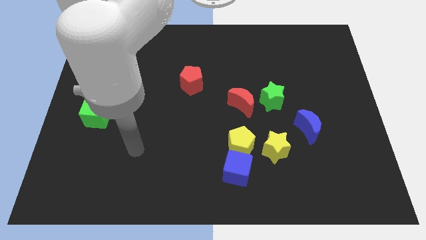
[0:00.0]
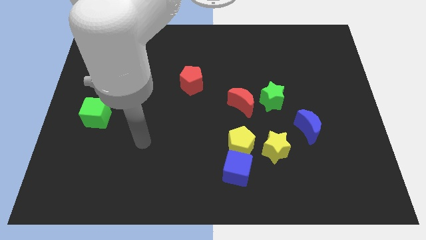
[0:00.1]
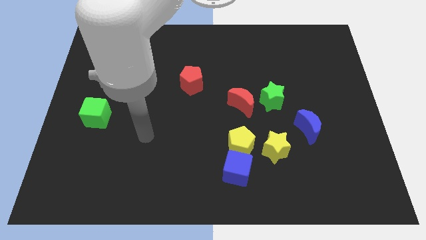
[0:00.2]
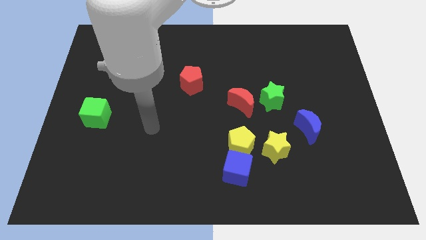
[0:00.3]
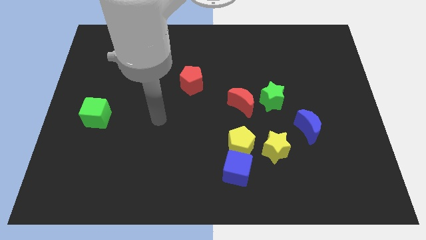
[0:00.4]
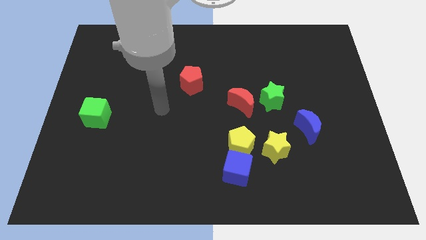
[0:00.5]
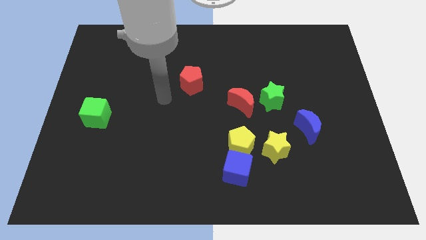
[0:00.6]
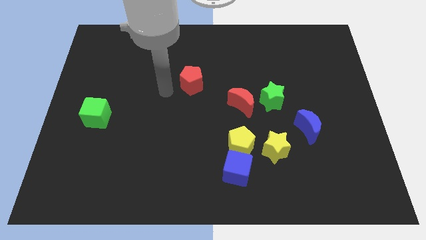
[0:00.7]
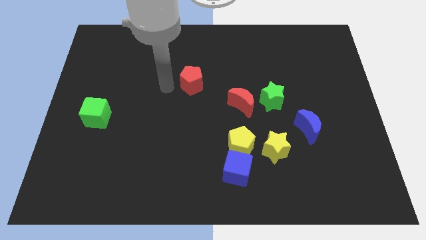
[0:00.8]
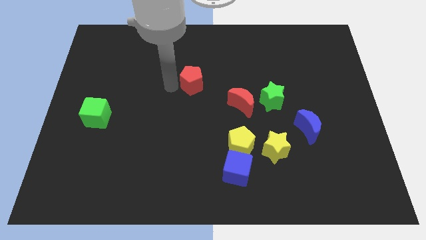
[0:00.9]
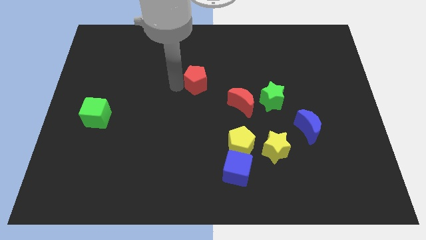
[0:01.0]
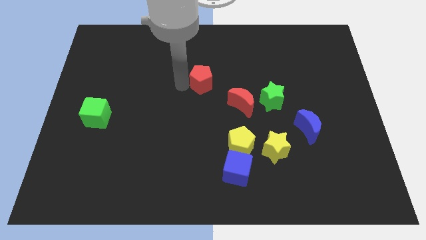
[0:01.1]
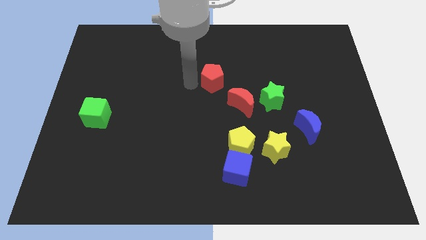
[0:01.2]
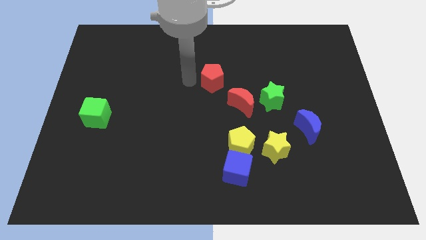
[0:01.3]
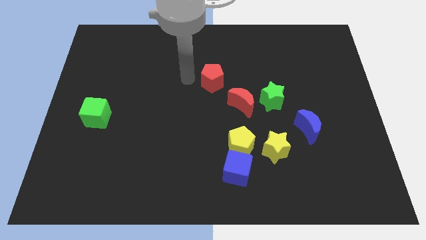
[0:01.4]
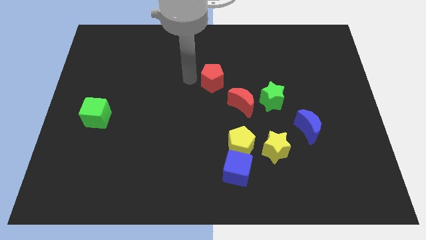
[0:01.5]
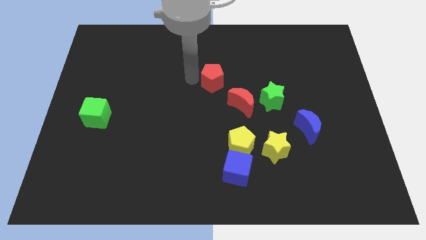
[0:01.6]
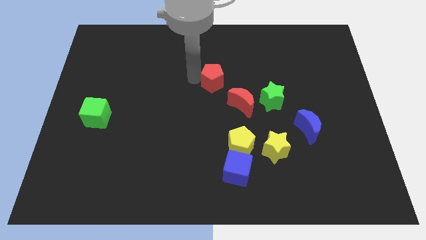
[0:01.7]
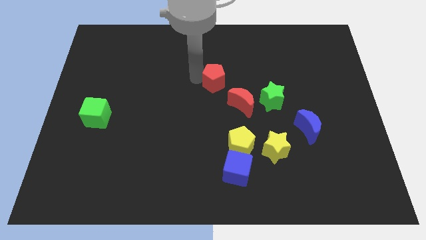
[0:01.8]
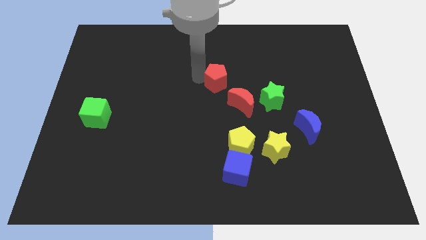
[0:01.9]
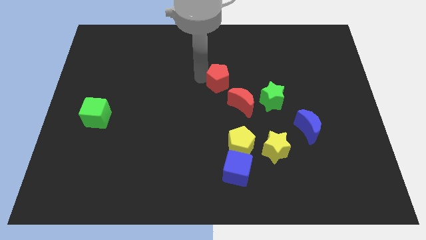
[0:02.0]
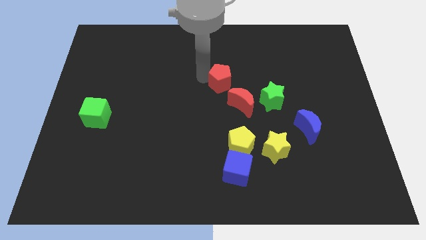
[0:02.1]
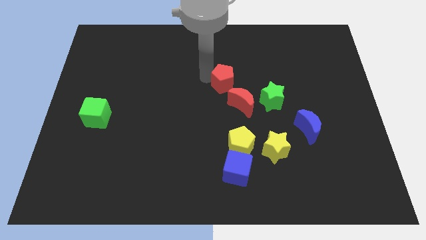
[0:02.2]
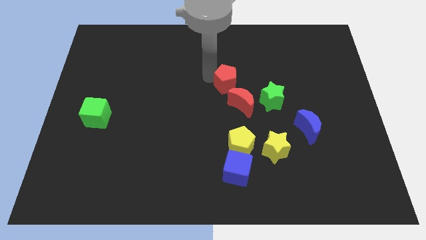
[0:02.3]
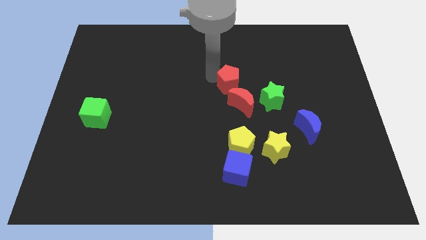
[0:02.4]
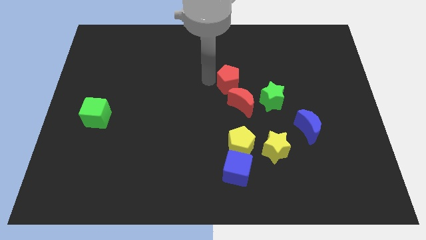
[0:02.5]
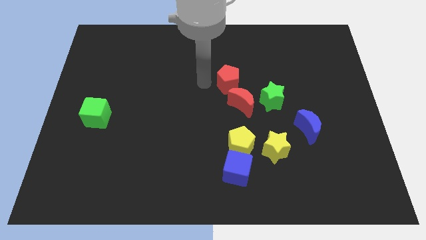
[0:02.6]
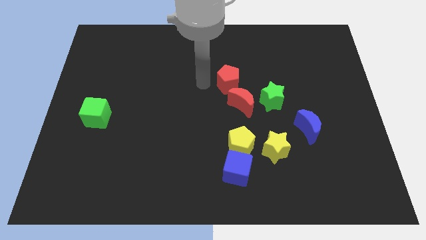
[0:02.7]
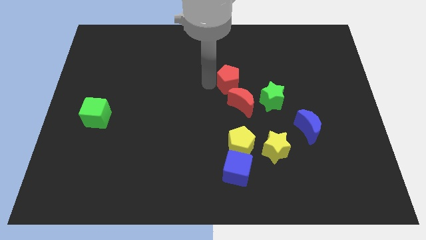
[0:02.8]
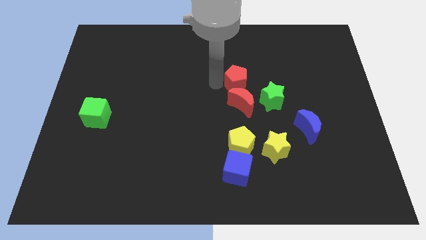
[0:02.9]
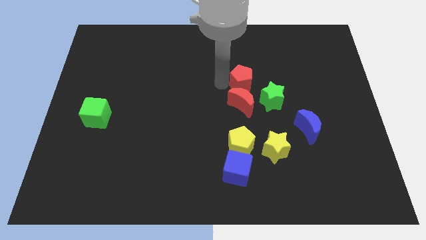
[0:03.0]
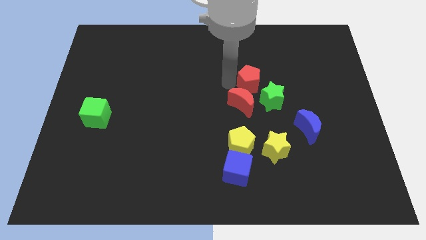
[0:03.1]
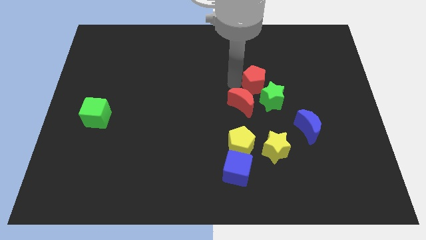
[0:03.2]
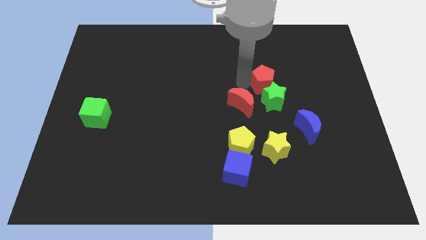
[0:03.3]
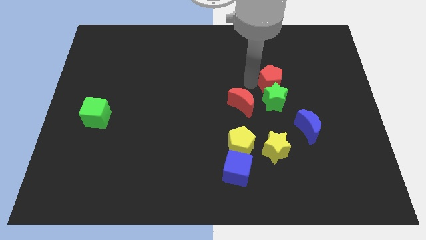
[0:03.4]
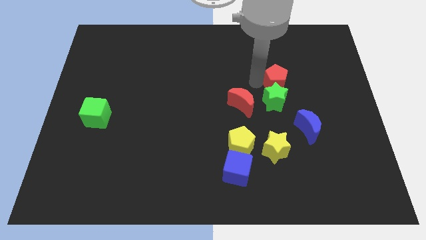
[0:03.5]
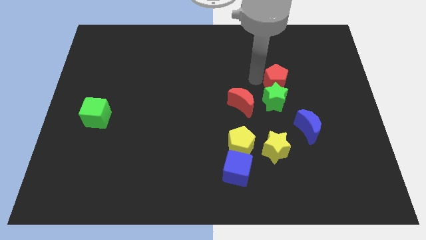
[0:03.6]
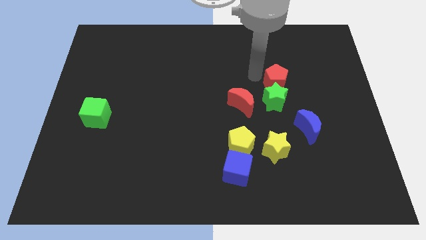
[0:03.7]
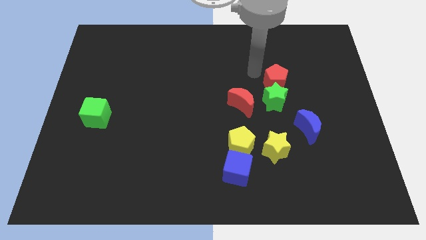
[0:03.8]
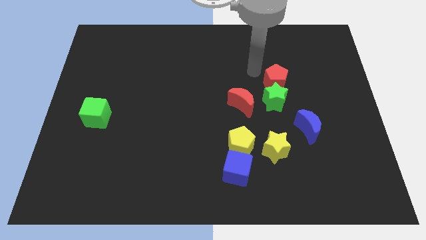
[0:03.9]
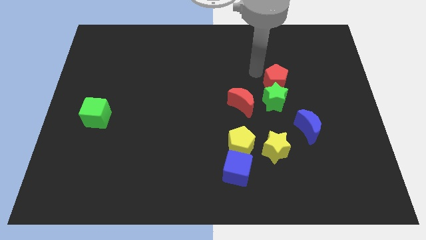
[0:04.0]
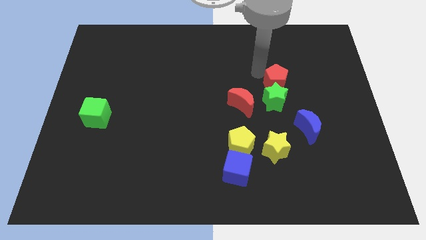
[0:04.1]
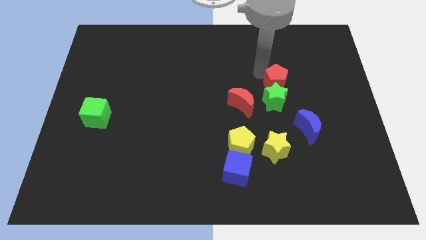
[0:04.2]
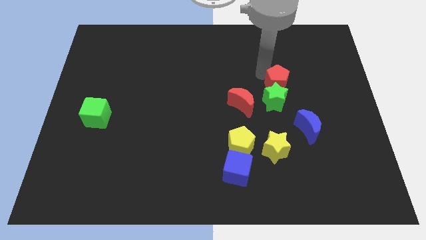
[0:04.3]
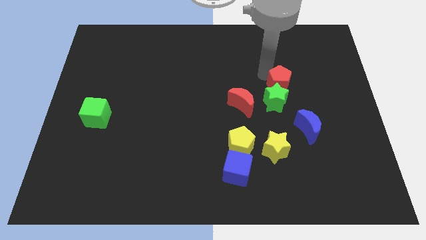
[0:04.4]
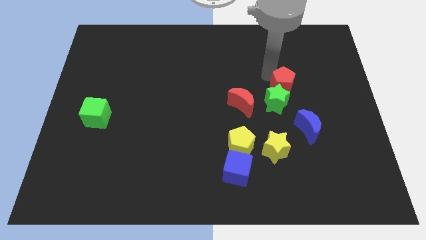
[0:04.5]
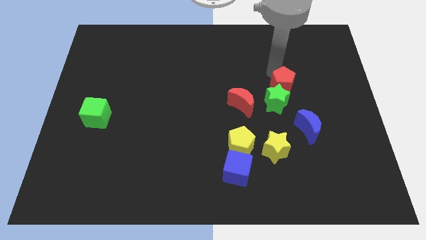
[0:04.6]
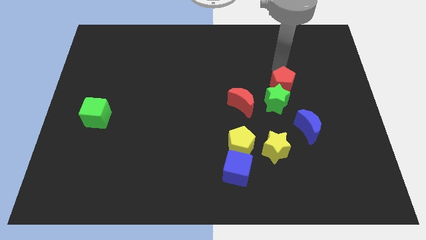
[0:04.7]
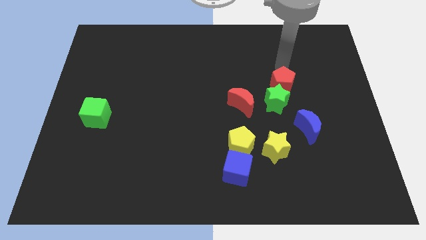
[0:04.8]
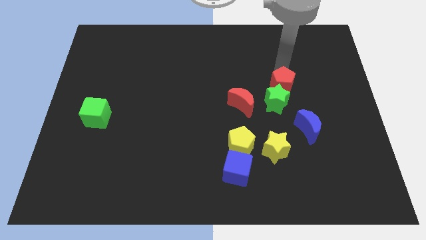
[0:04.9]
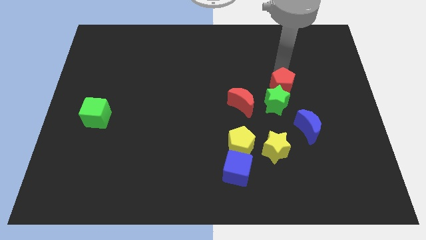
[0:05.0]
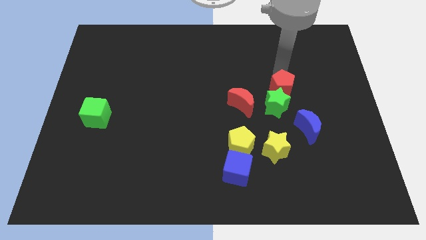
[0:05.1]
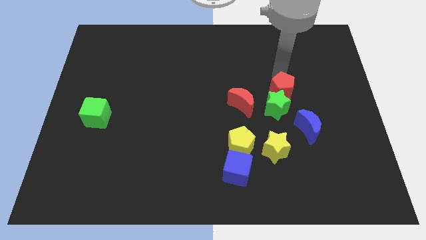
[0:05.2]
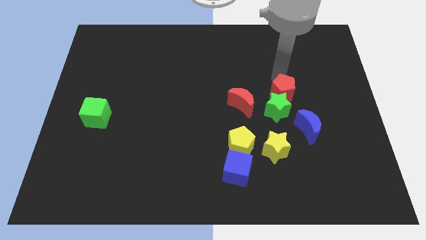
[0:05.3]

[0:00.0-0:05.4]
move the red pentagon to the top left of the blue moon

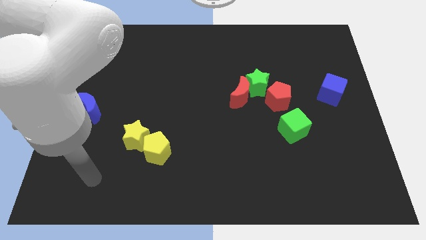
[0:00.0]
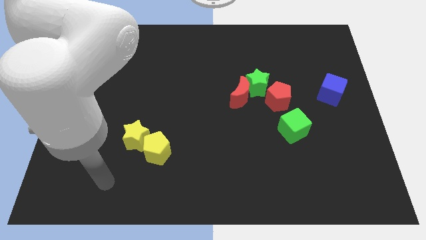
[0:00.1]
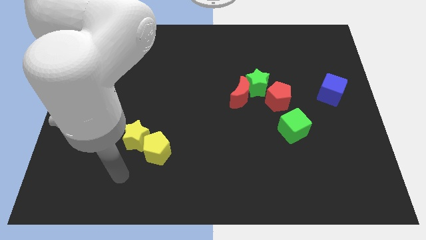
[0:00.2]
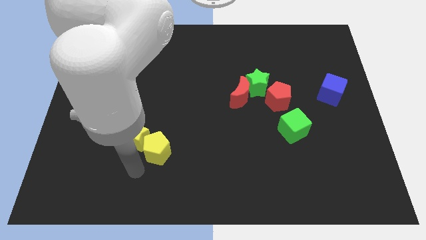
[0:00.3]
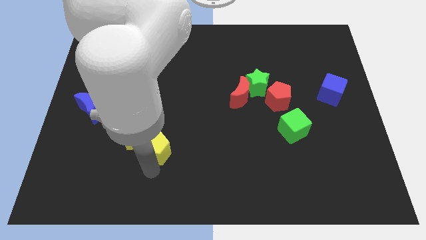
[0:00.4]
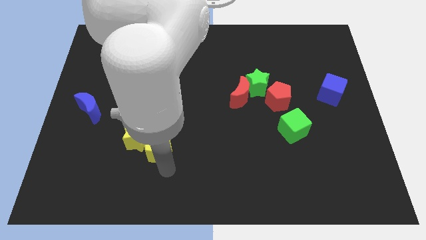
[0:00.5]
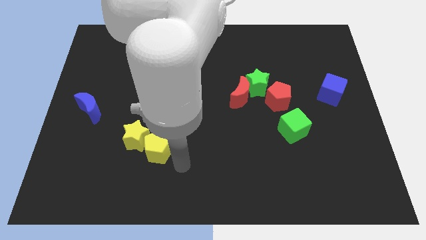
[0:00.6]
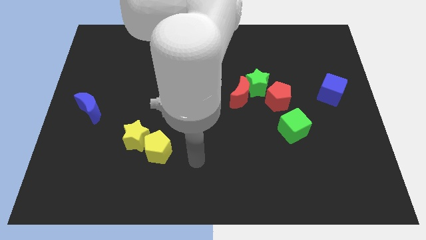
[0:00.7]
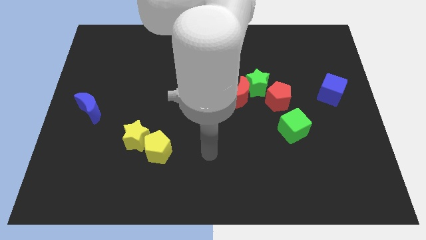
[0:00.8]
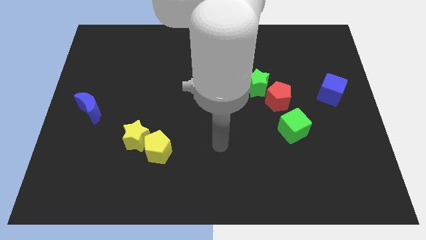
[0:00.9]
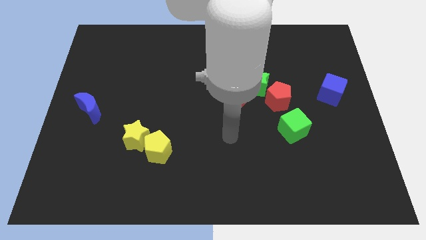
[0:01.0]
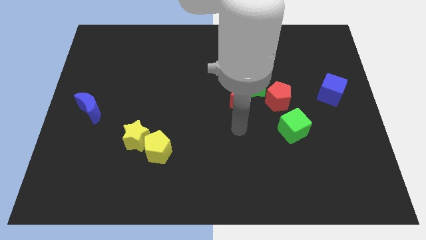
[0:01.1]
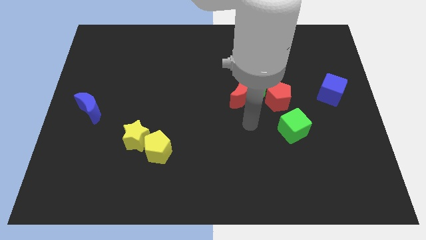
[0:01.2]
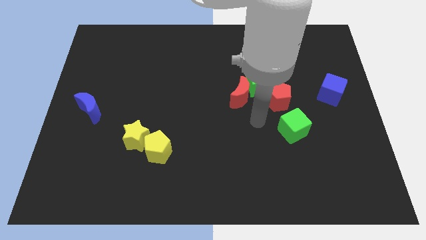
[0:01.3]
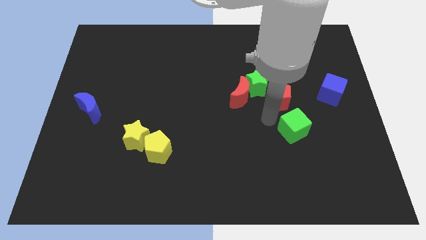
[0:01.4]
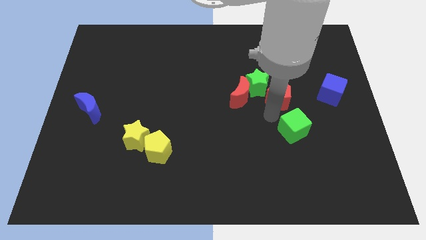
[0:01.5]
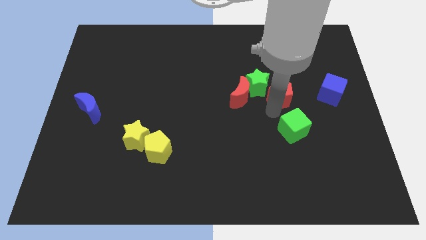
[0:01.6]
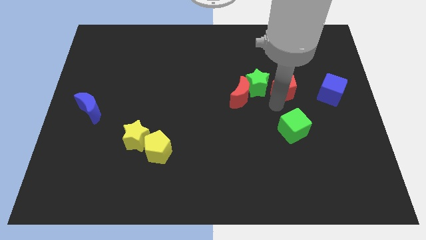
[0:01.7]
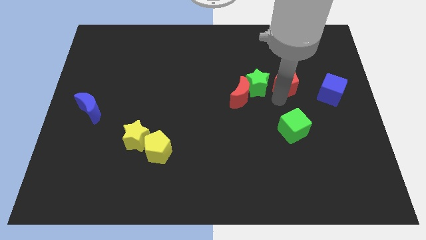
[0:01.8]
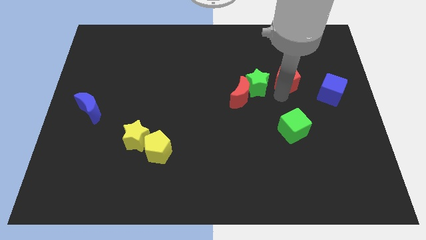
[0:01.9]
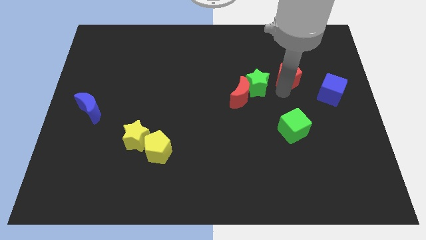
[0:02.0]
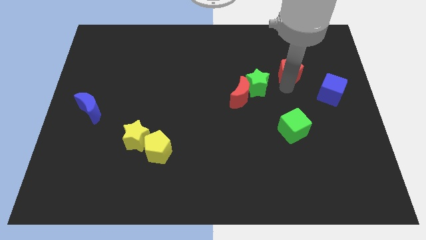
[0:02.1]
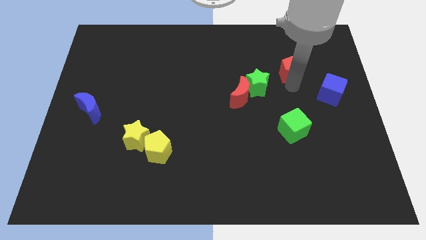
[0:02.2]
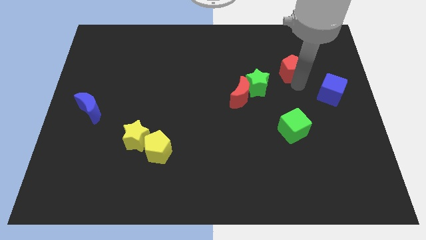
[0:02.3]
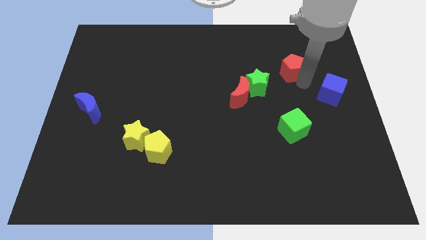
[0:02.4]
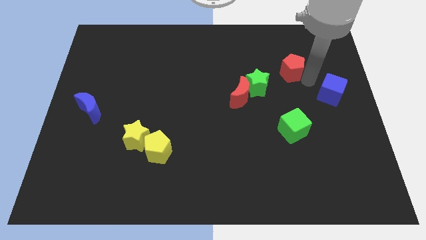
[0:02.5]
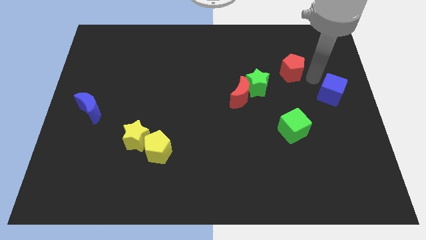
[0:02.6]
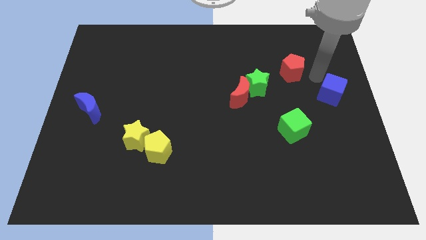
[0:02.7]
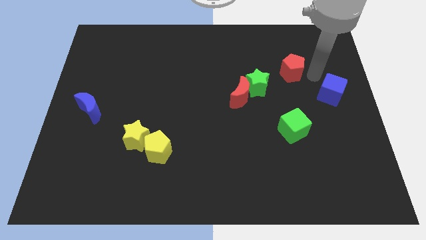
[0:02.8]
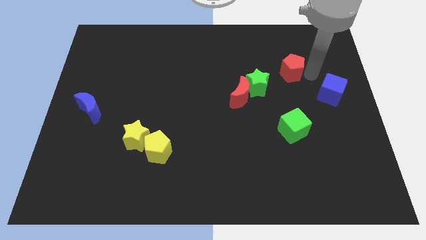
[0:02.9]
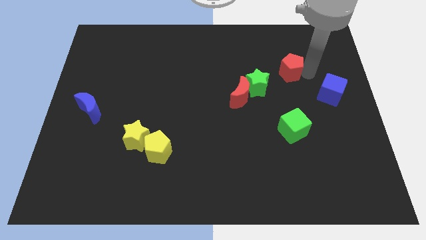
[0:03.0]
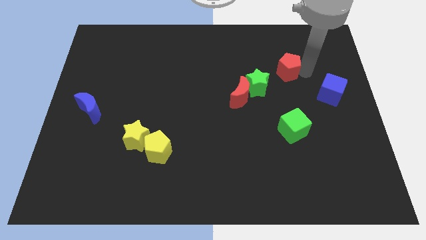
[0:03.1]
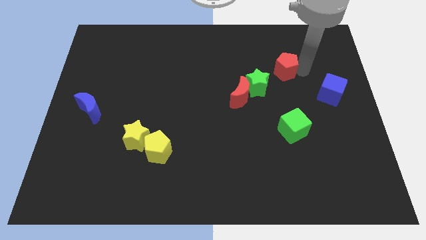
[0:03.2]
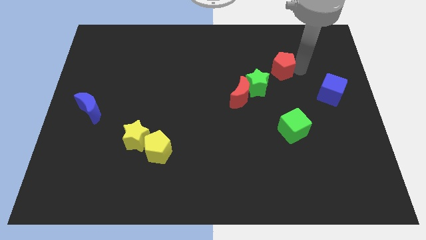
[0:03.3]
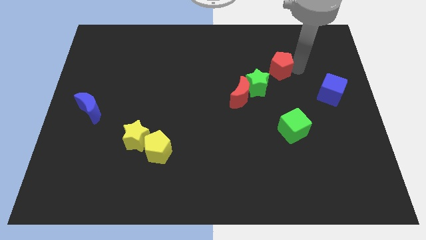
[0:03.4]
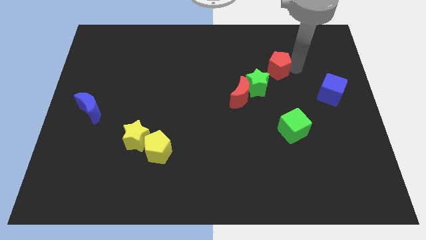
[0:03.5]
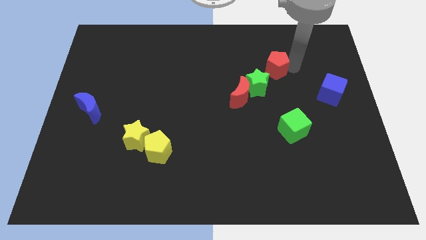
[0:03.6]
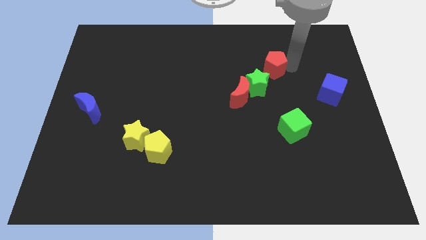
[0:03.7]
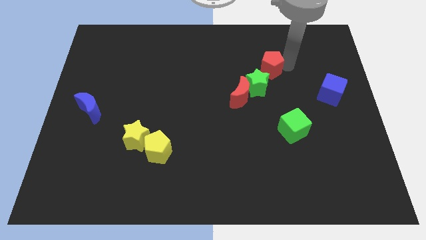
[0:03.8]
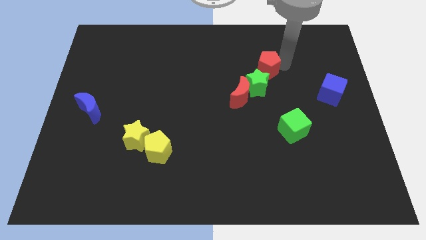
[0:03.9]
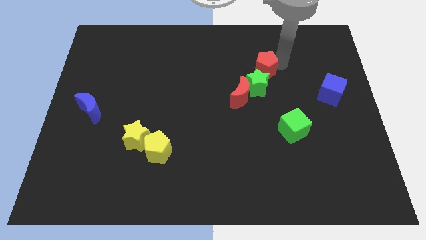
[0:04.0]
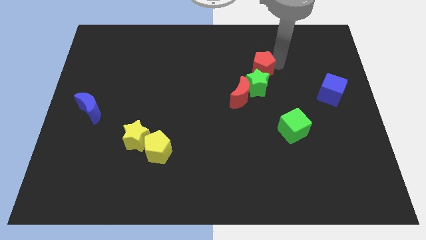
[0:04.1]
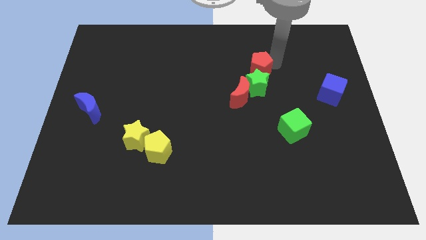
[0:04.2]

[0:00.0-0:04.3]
slide the red pentagon above the red moon
